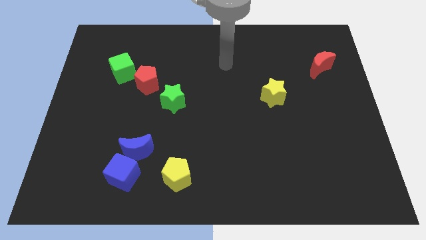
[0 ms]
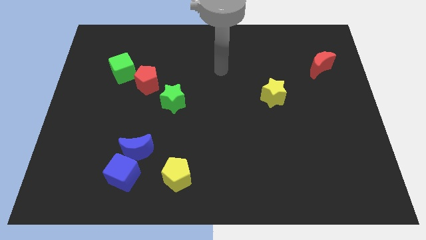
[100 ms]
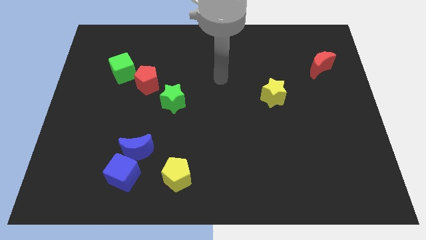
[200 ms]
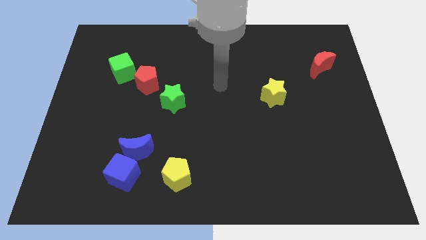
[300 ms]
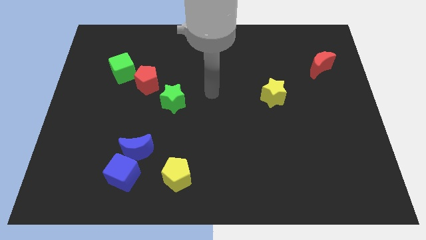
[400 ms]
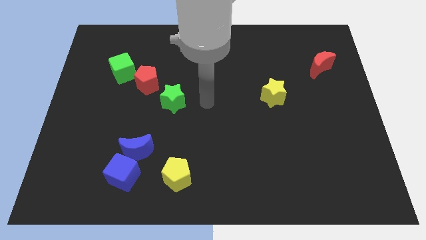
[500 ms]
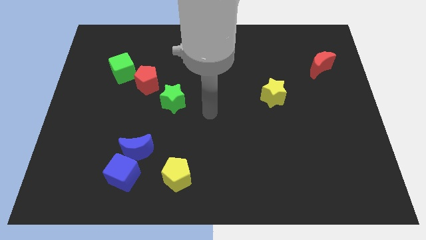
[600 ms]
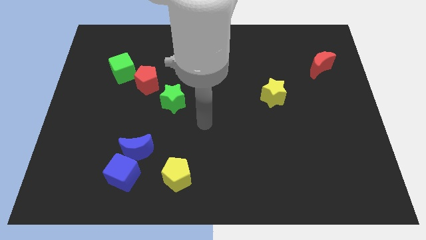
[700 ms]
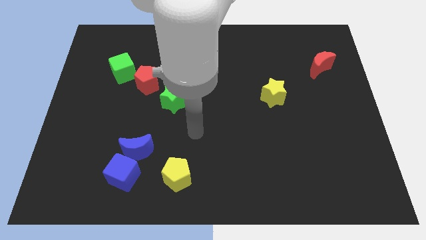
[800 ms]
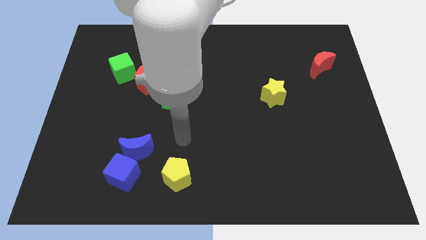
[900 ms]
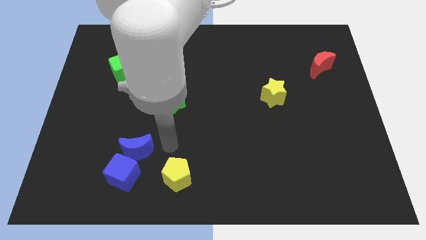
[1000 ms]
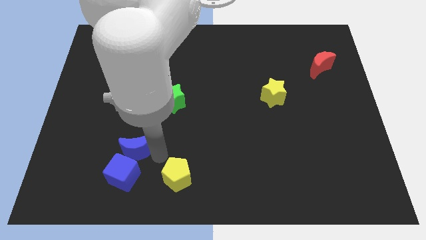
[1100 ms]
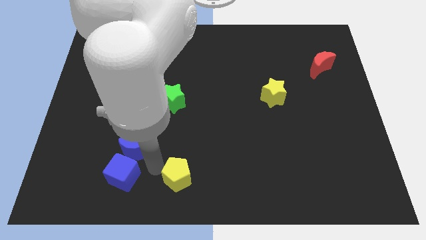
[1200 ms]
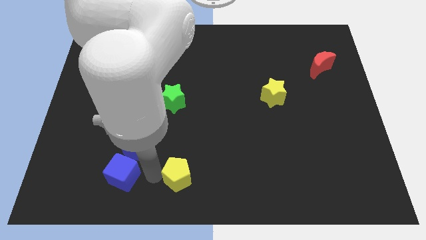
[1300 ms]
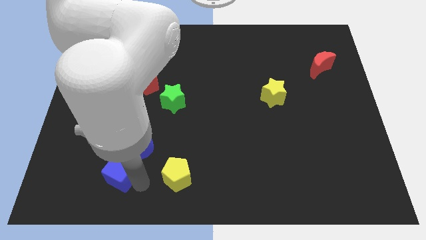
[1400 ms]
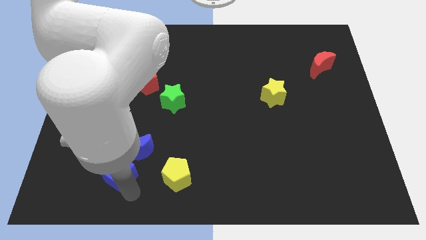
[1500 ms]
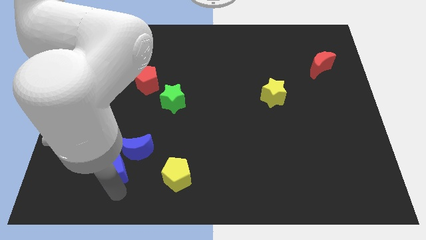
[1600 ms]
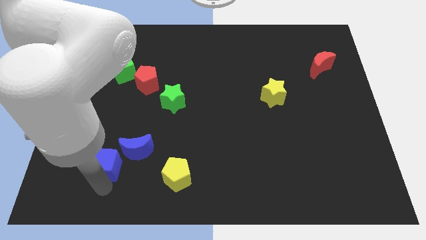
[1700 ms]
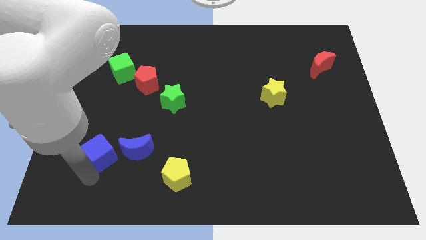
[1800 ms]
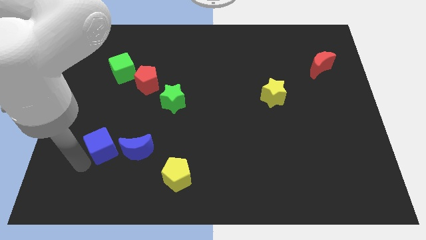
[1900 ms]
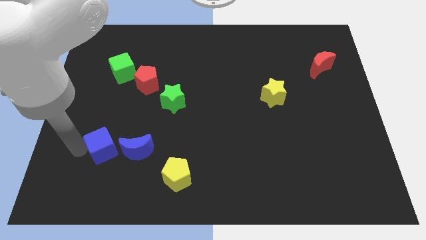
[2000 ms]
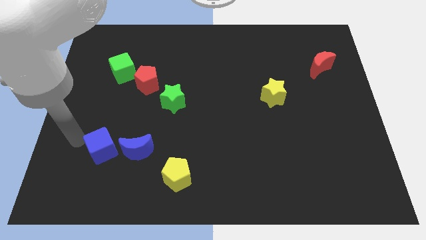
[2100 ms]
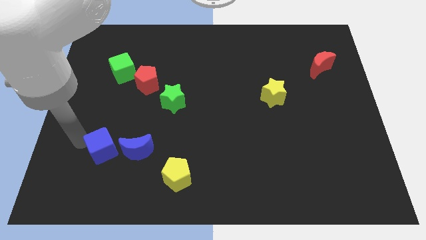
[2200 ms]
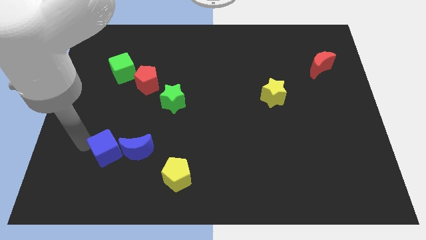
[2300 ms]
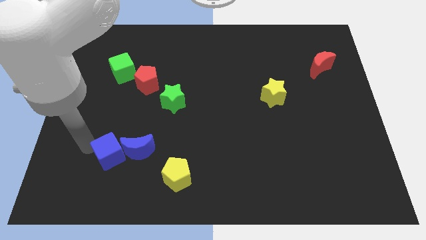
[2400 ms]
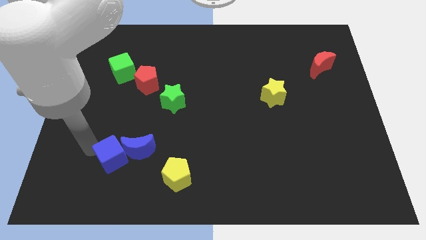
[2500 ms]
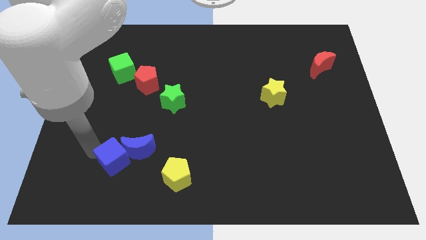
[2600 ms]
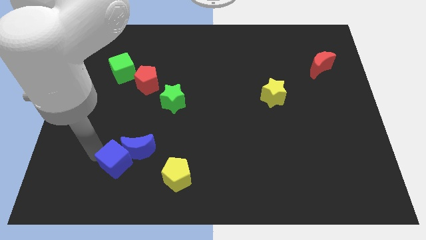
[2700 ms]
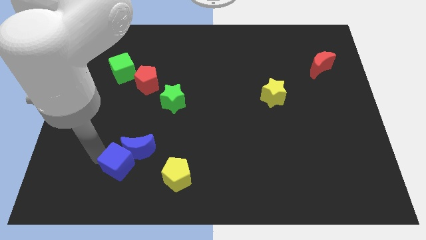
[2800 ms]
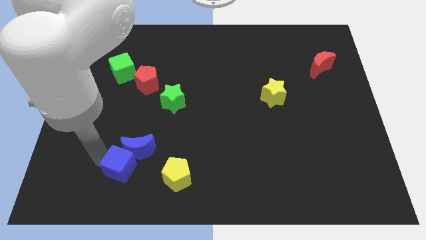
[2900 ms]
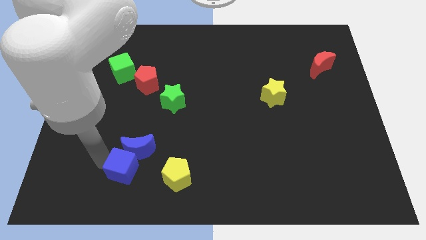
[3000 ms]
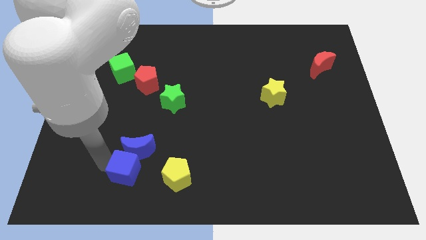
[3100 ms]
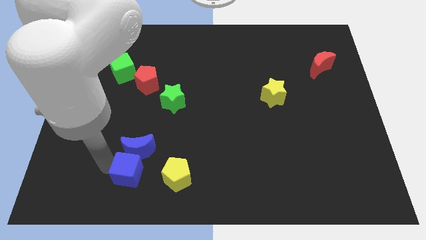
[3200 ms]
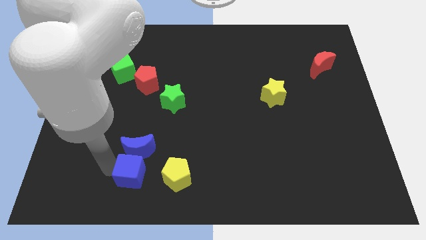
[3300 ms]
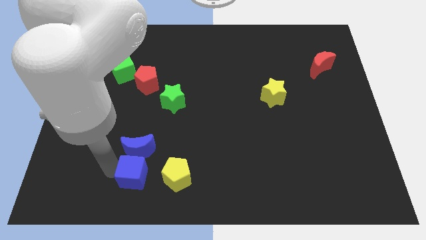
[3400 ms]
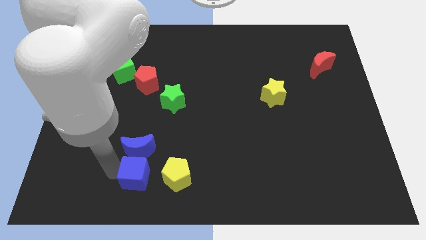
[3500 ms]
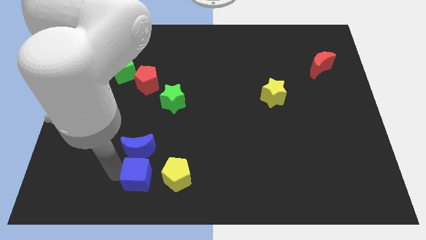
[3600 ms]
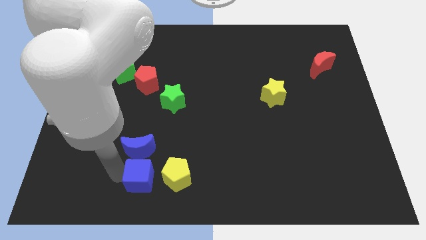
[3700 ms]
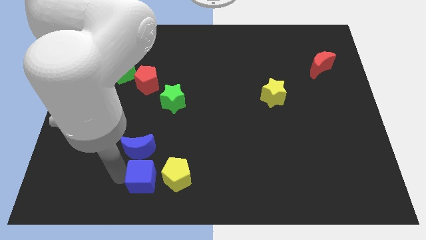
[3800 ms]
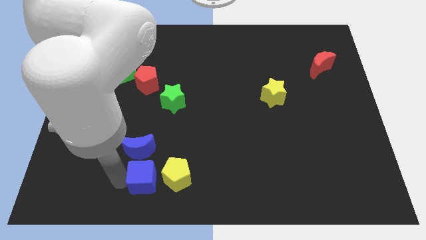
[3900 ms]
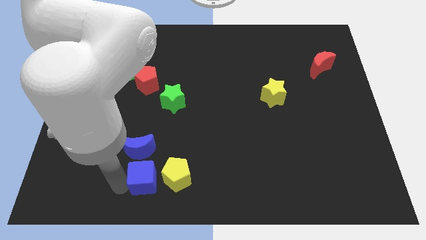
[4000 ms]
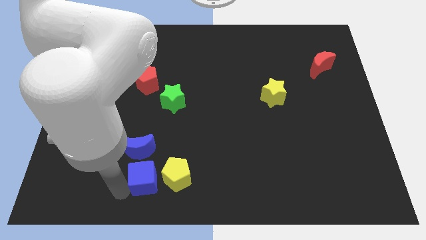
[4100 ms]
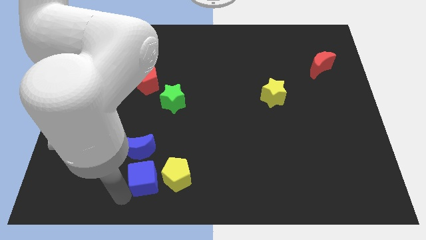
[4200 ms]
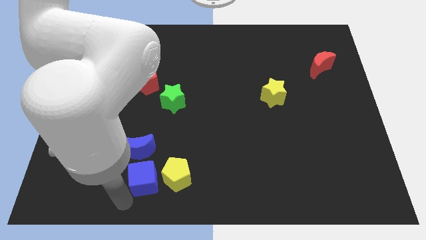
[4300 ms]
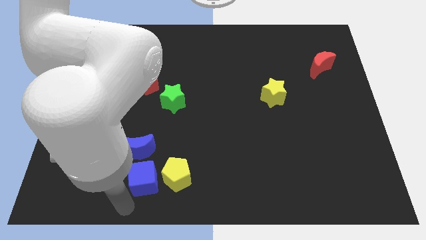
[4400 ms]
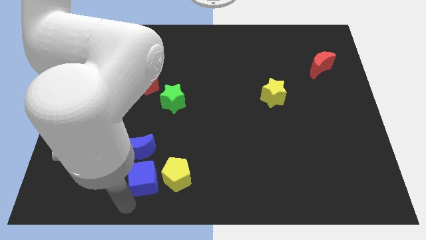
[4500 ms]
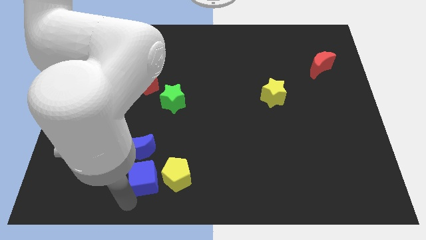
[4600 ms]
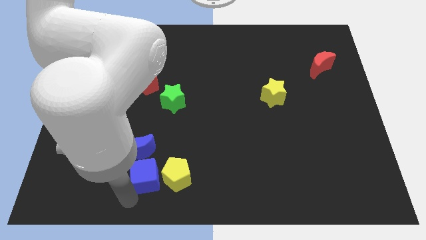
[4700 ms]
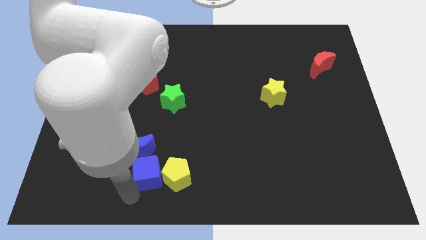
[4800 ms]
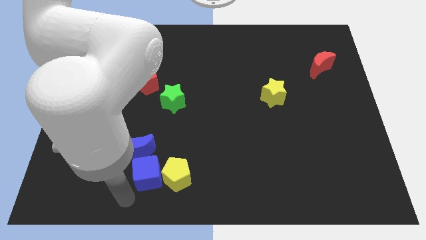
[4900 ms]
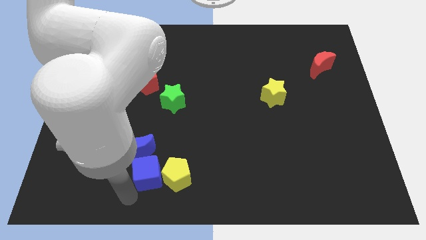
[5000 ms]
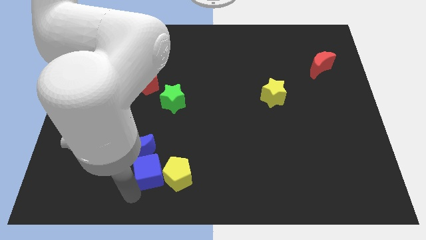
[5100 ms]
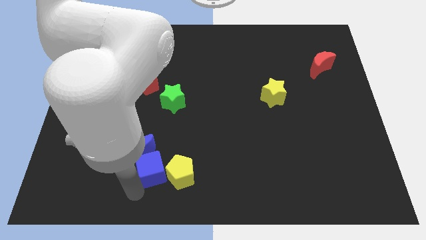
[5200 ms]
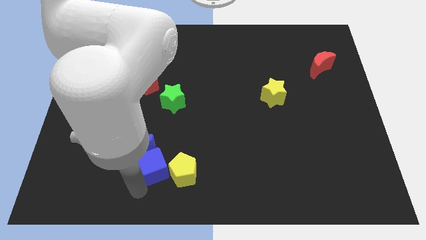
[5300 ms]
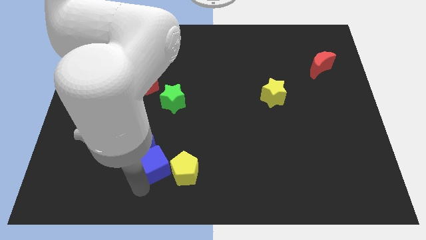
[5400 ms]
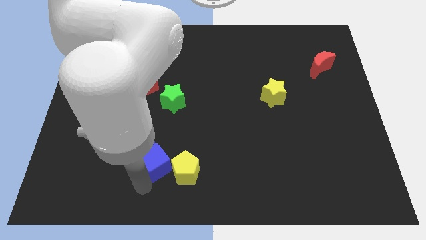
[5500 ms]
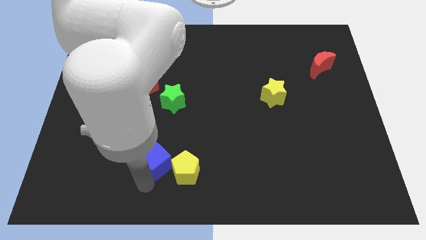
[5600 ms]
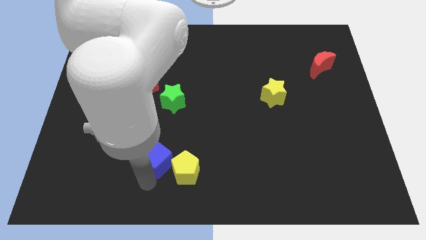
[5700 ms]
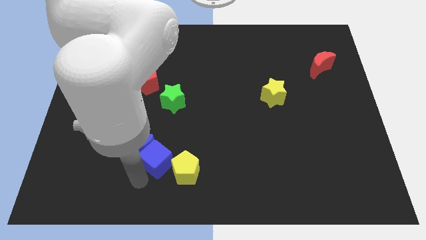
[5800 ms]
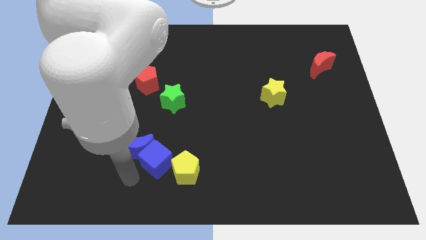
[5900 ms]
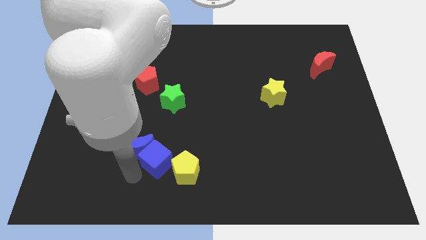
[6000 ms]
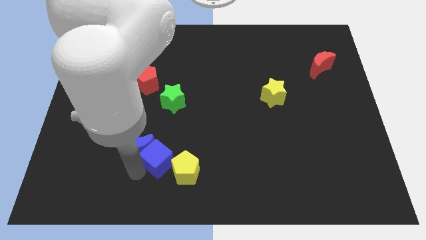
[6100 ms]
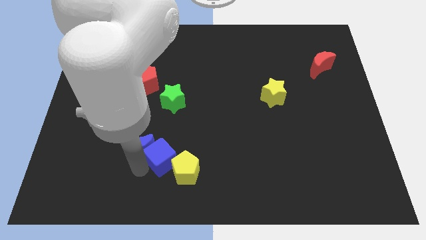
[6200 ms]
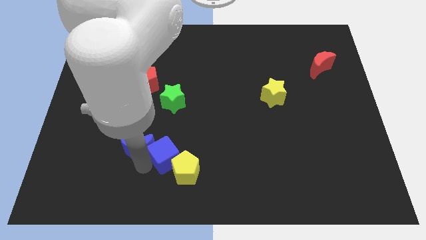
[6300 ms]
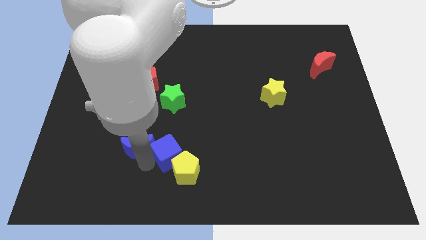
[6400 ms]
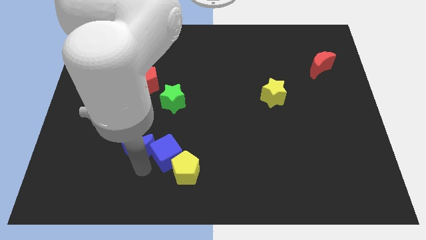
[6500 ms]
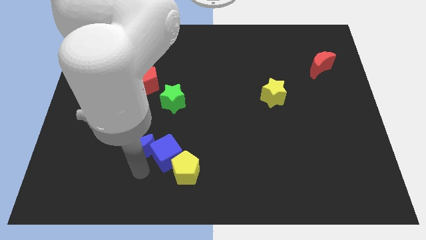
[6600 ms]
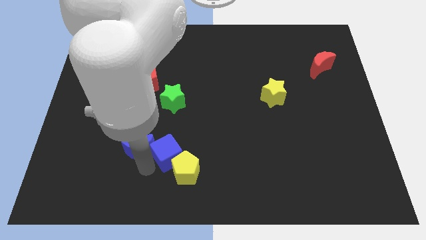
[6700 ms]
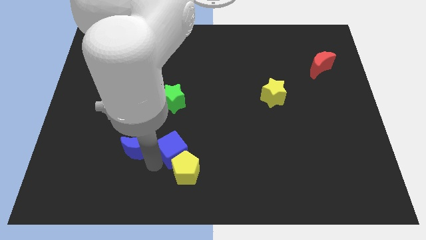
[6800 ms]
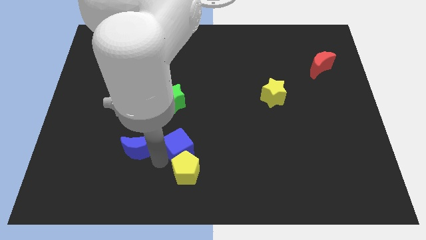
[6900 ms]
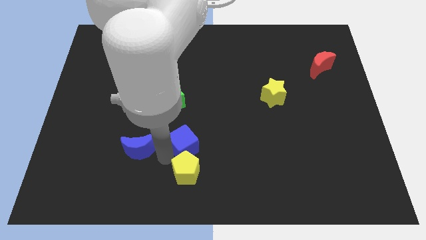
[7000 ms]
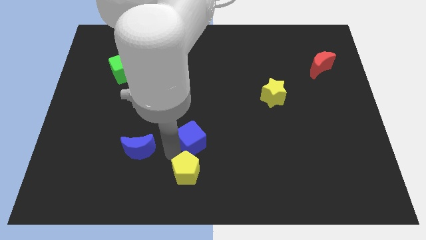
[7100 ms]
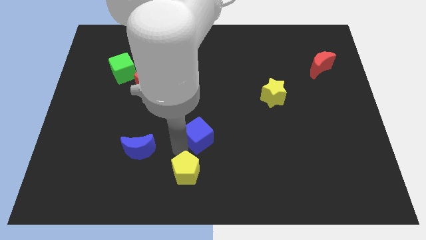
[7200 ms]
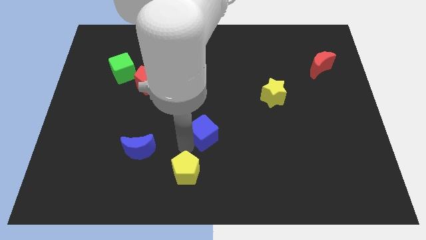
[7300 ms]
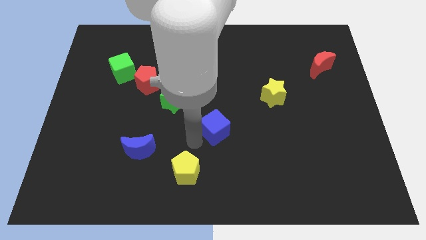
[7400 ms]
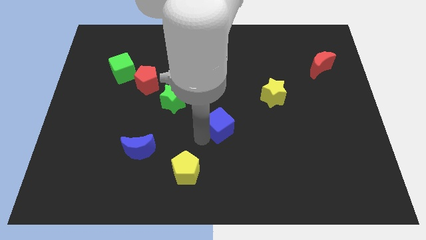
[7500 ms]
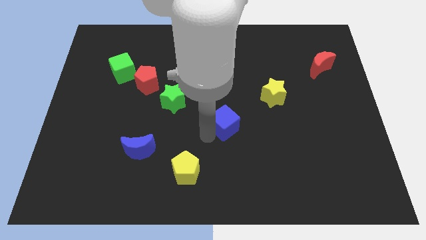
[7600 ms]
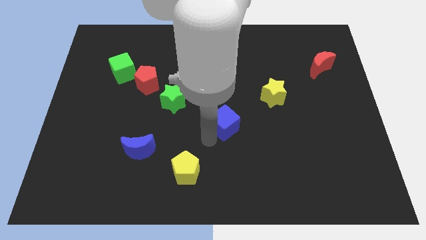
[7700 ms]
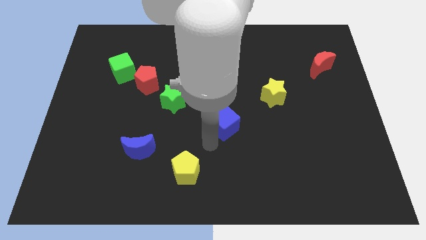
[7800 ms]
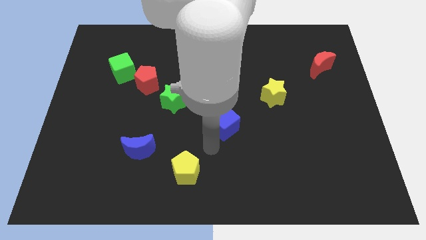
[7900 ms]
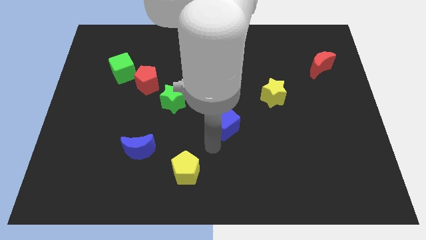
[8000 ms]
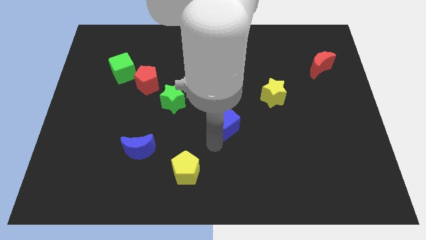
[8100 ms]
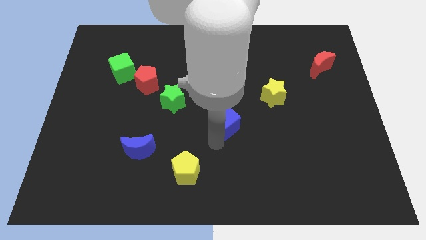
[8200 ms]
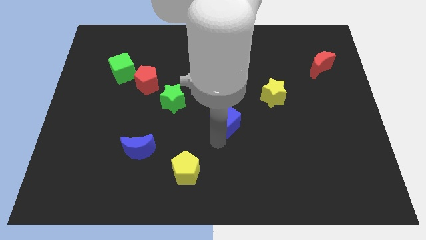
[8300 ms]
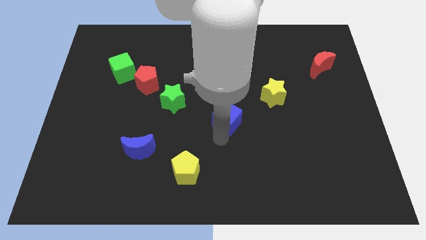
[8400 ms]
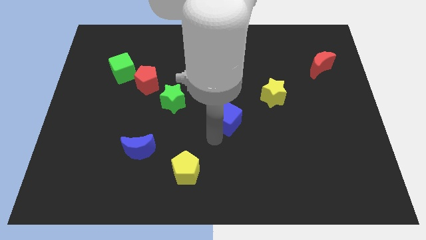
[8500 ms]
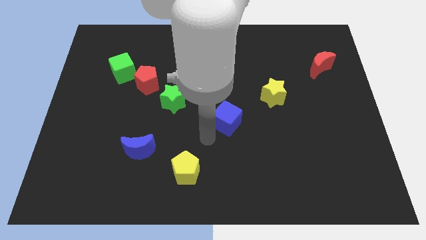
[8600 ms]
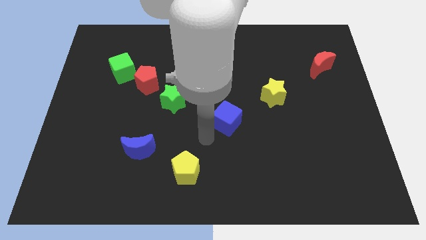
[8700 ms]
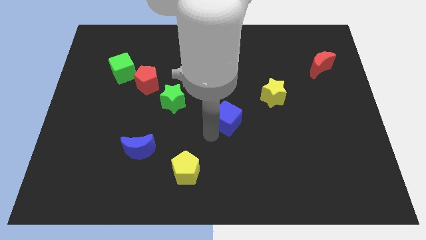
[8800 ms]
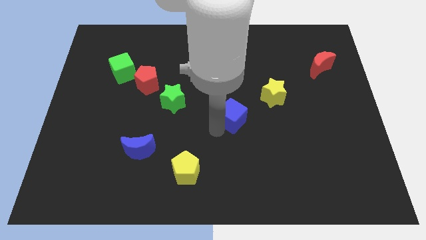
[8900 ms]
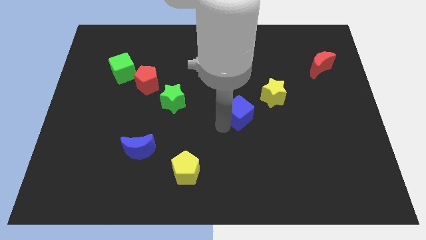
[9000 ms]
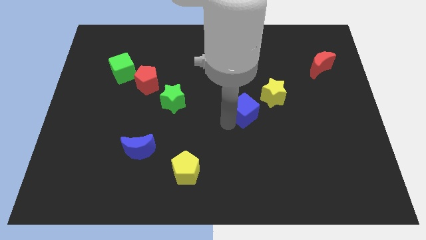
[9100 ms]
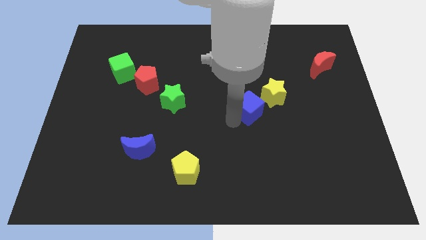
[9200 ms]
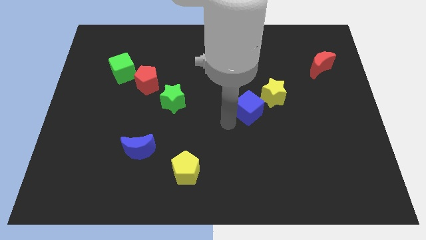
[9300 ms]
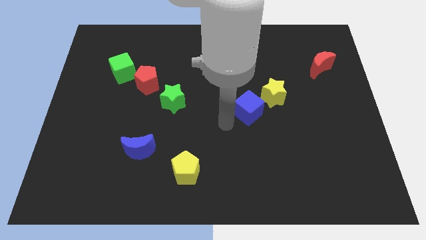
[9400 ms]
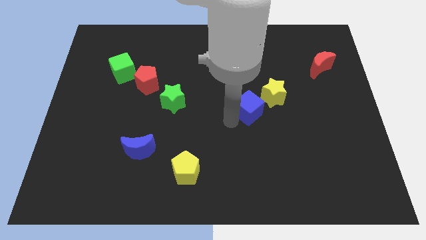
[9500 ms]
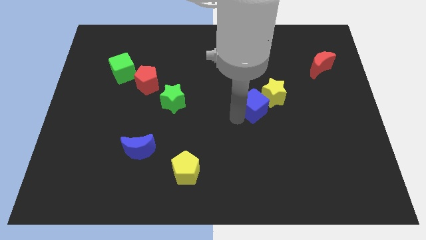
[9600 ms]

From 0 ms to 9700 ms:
move the blue cube to the yellow star
